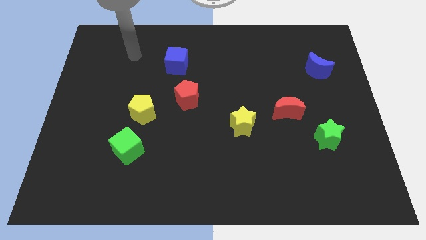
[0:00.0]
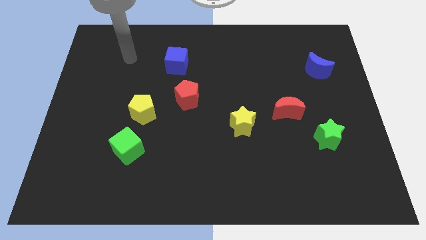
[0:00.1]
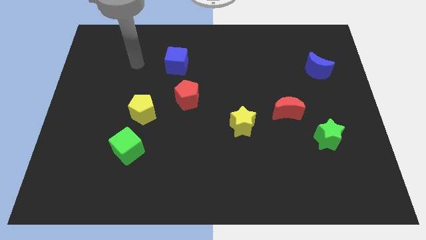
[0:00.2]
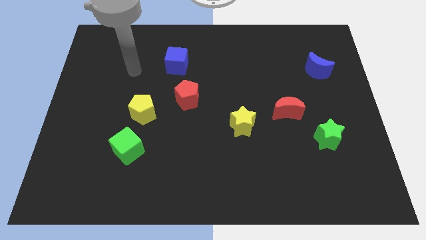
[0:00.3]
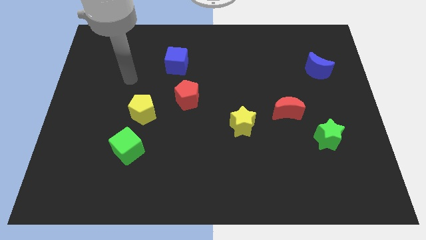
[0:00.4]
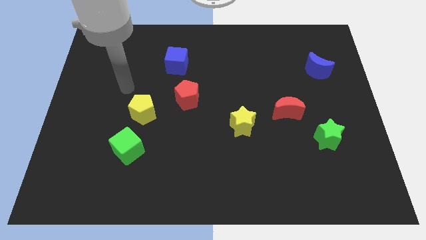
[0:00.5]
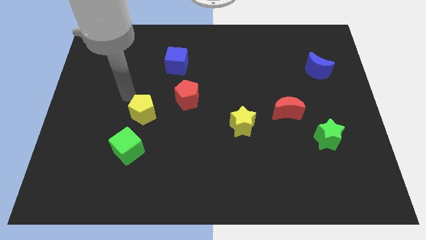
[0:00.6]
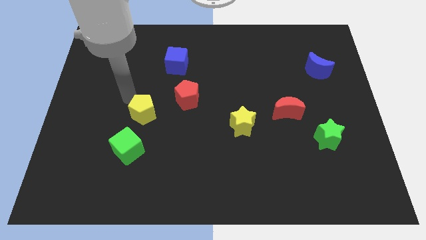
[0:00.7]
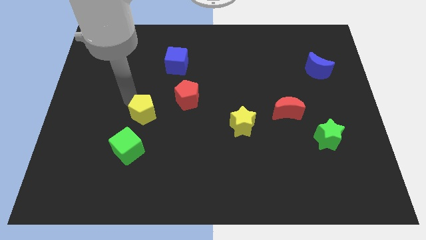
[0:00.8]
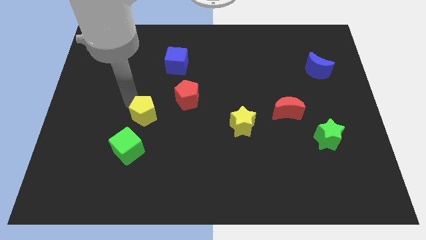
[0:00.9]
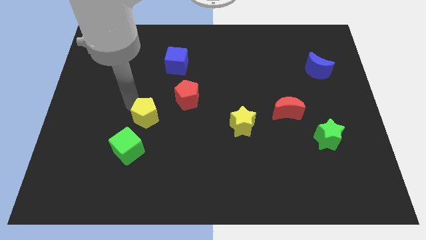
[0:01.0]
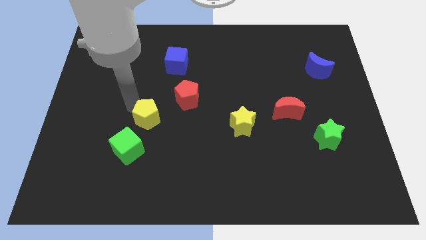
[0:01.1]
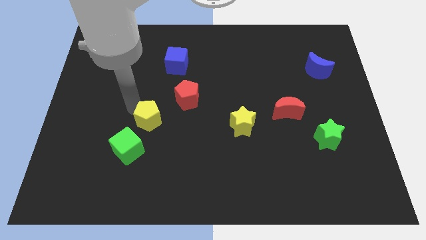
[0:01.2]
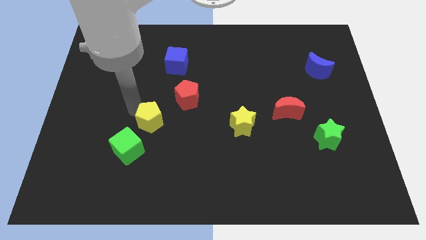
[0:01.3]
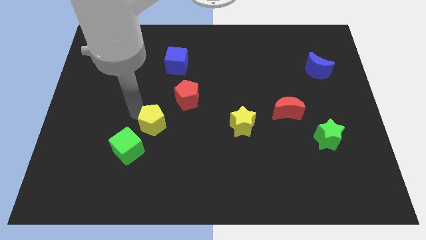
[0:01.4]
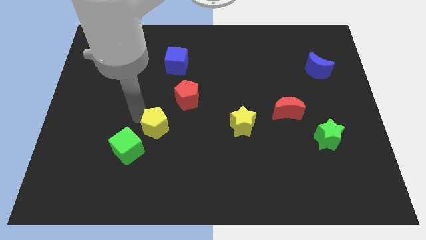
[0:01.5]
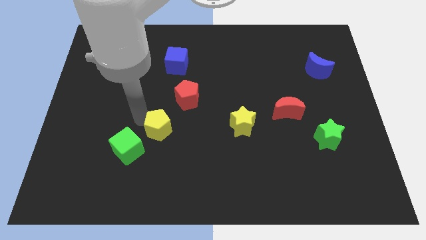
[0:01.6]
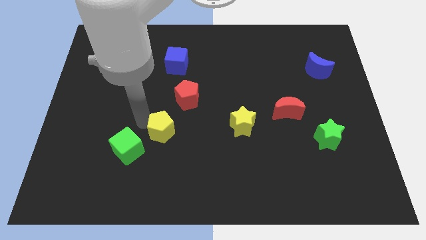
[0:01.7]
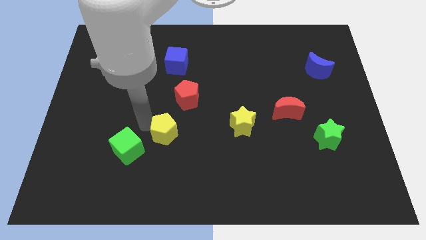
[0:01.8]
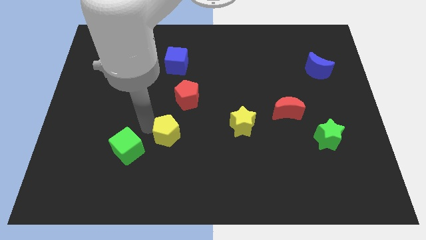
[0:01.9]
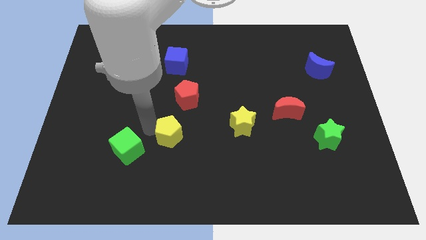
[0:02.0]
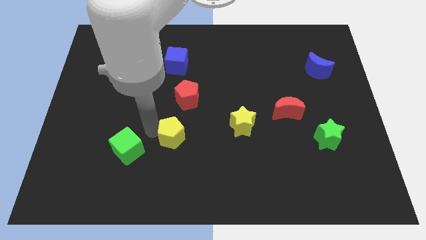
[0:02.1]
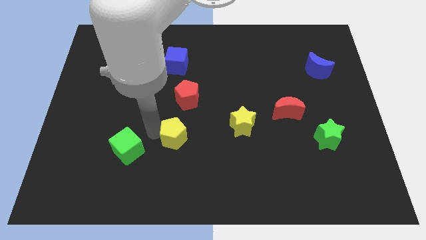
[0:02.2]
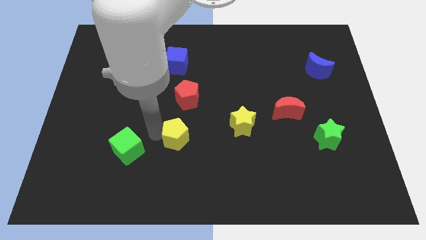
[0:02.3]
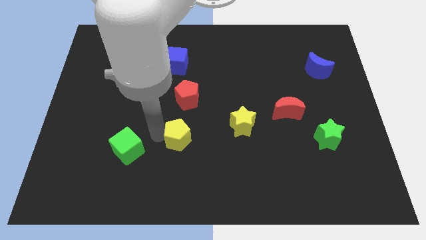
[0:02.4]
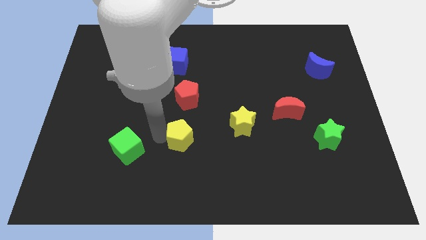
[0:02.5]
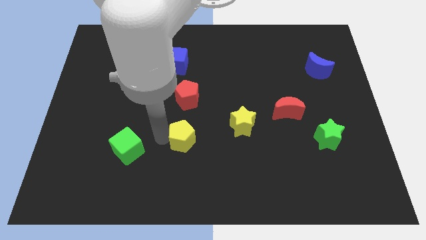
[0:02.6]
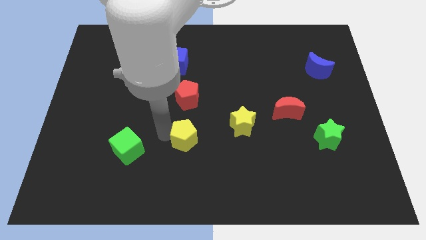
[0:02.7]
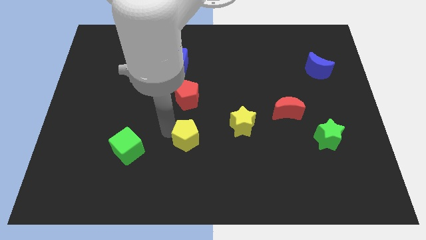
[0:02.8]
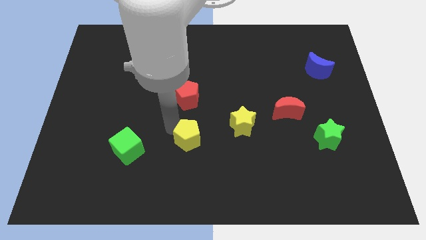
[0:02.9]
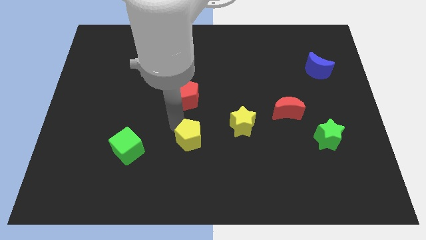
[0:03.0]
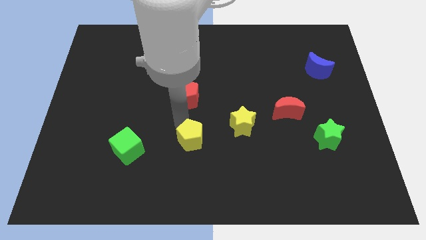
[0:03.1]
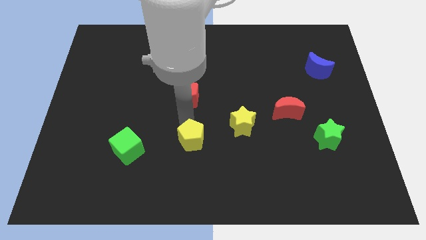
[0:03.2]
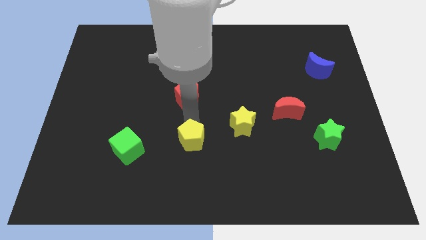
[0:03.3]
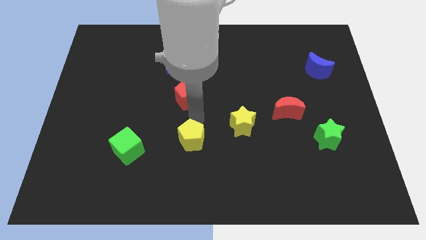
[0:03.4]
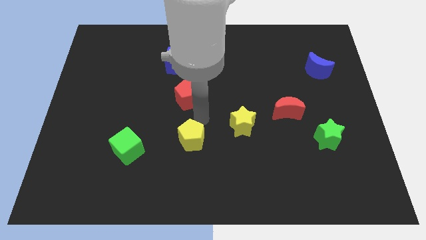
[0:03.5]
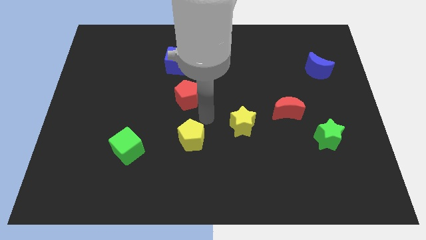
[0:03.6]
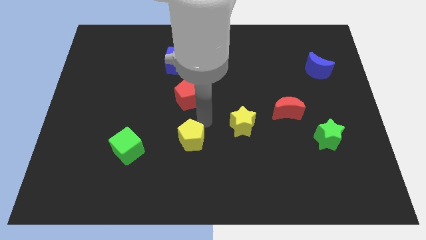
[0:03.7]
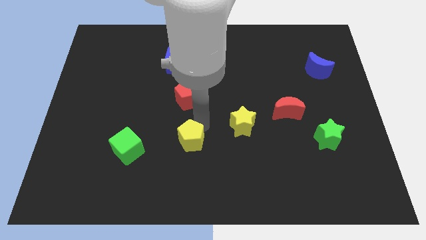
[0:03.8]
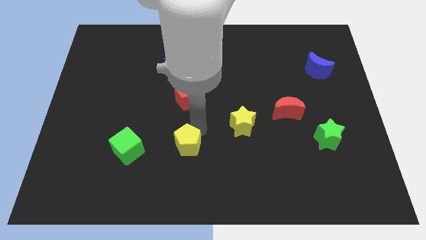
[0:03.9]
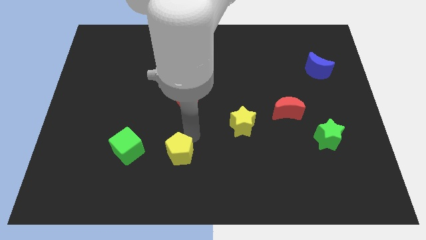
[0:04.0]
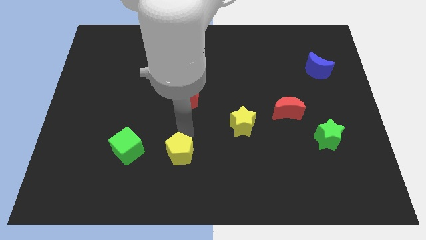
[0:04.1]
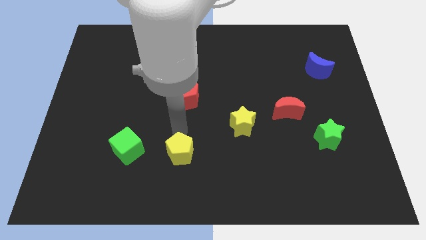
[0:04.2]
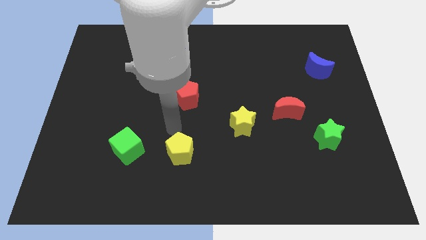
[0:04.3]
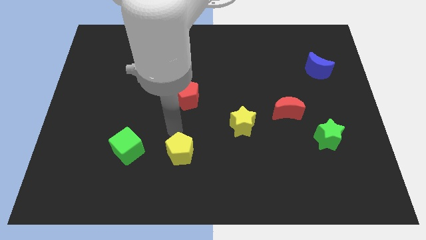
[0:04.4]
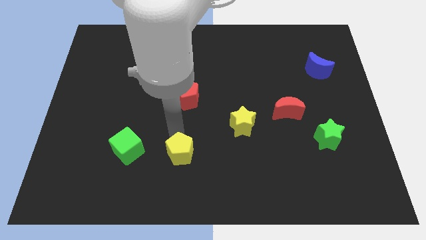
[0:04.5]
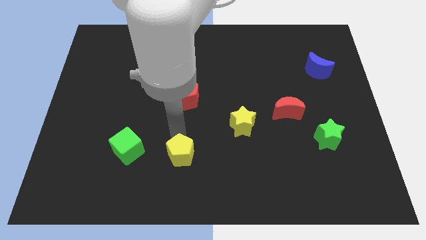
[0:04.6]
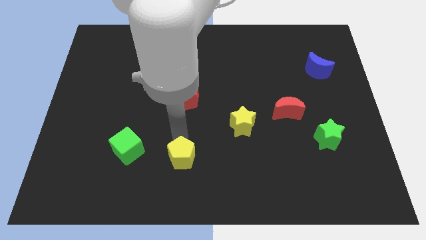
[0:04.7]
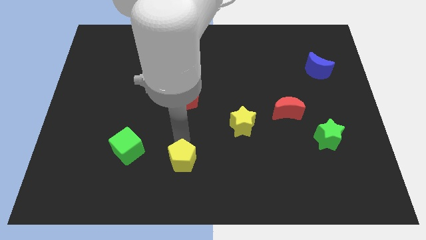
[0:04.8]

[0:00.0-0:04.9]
move the yellow pentagon to the bottom side

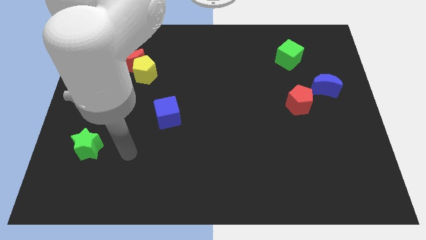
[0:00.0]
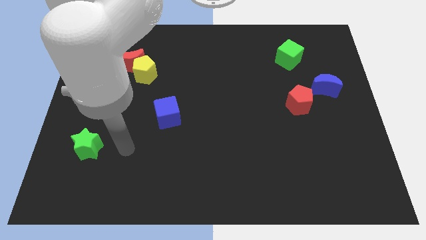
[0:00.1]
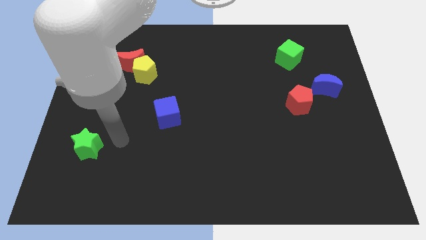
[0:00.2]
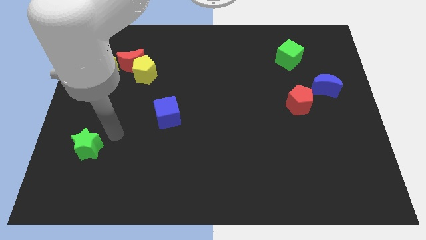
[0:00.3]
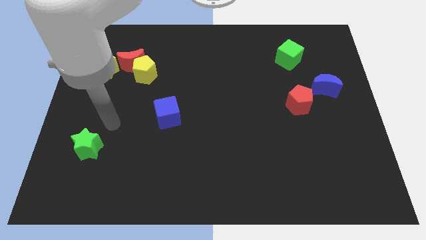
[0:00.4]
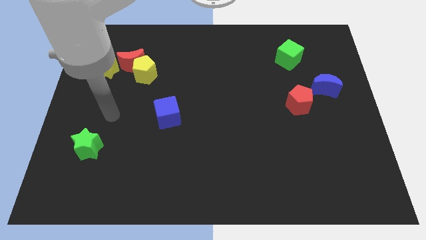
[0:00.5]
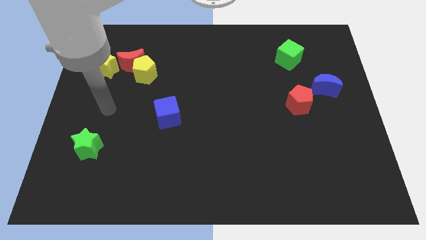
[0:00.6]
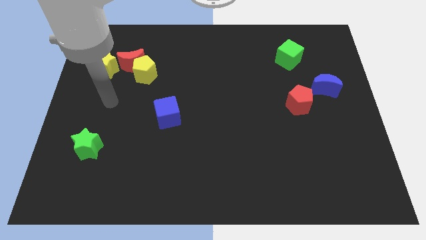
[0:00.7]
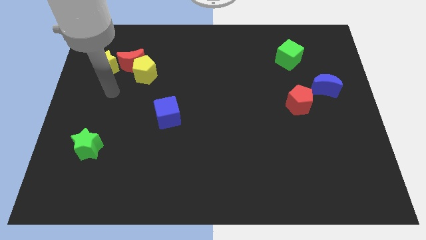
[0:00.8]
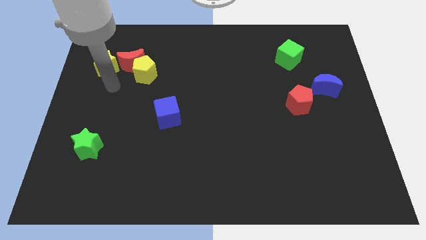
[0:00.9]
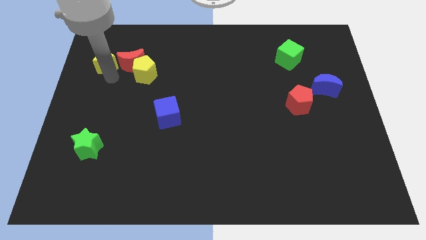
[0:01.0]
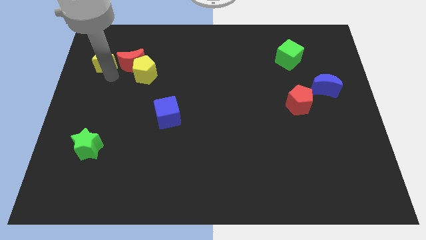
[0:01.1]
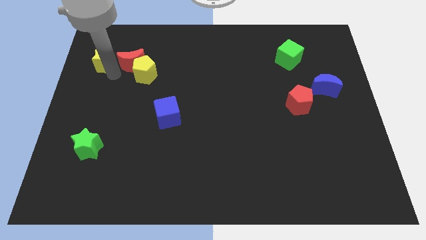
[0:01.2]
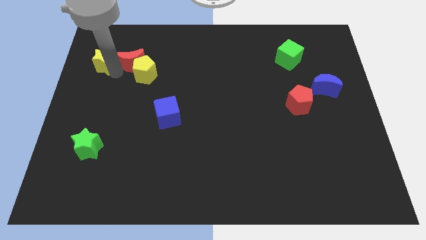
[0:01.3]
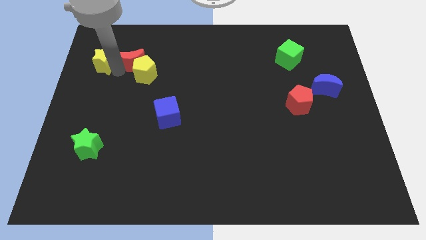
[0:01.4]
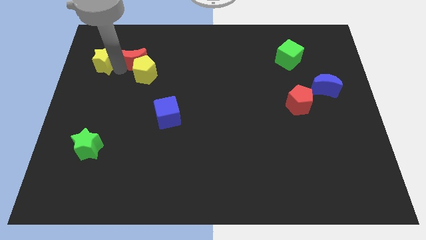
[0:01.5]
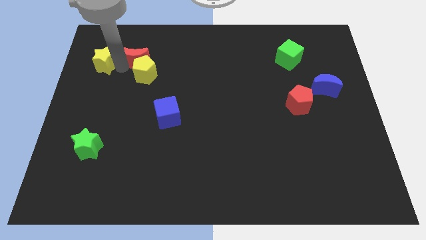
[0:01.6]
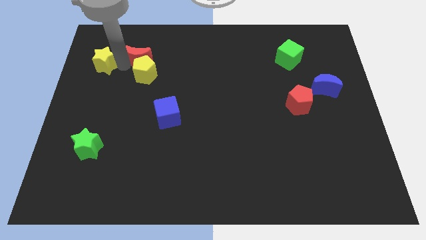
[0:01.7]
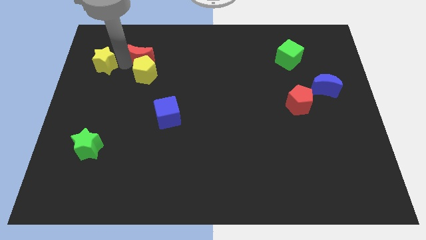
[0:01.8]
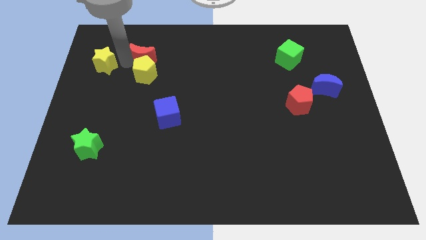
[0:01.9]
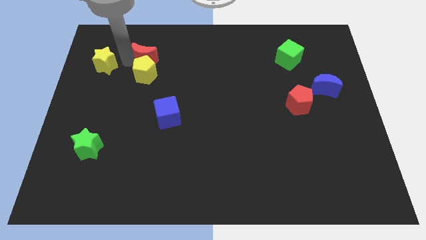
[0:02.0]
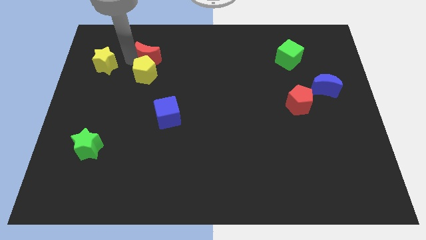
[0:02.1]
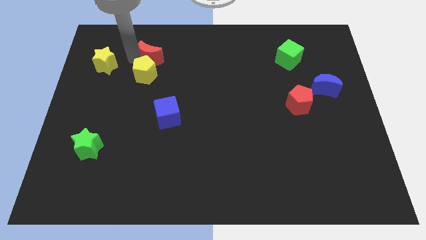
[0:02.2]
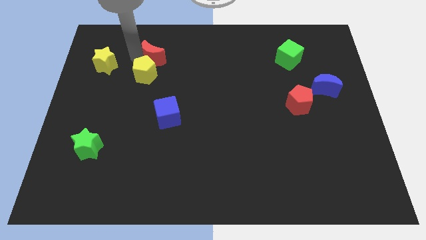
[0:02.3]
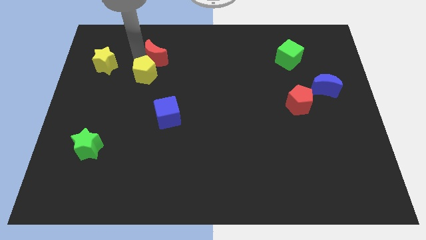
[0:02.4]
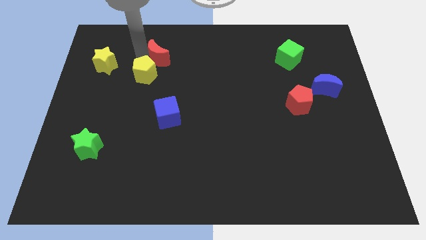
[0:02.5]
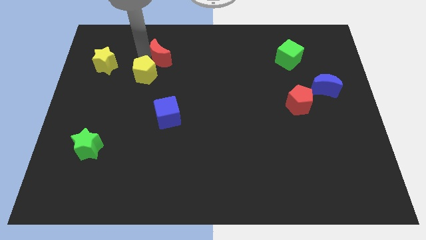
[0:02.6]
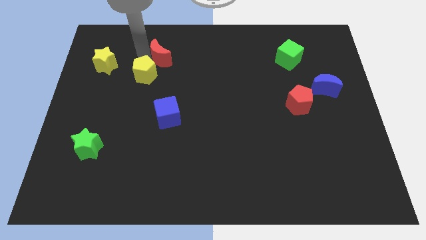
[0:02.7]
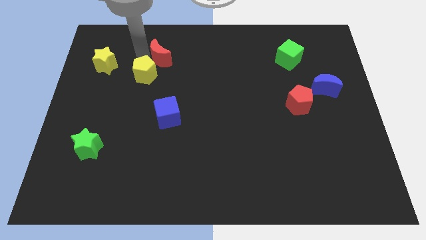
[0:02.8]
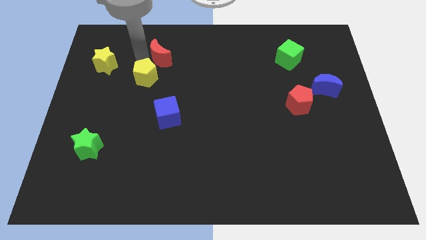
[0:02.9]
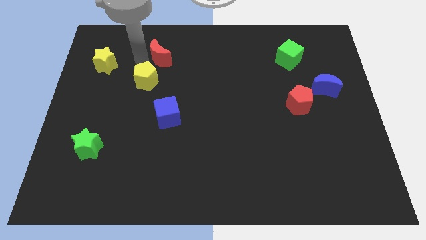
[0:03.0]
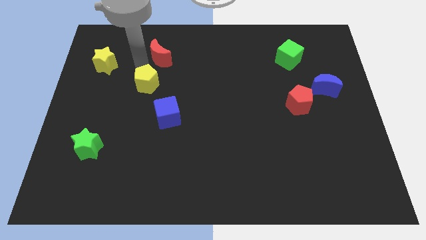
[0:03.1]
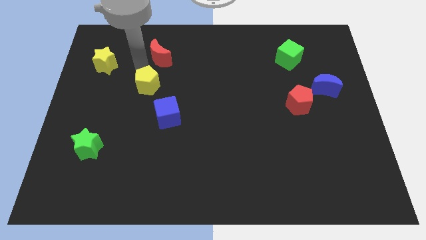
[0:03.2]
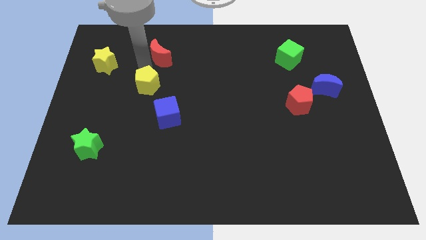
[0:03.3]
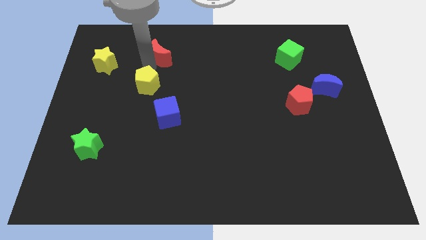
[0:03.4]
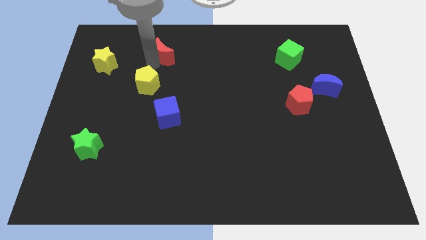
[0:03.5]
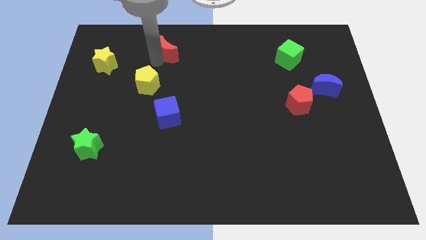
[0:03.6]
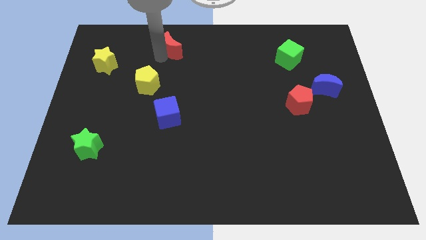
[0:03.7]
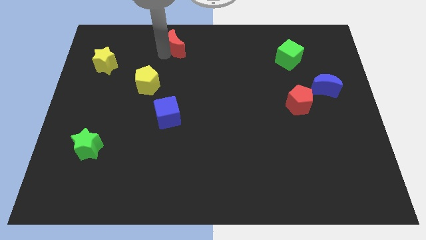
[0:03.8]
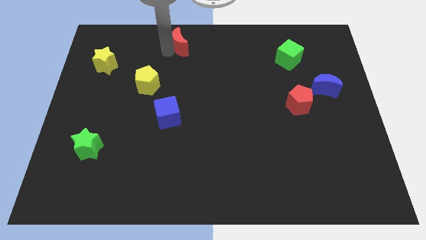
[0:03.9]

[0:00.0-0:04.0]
move the red moon to the towards your base
